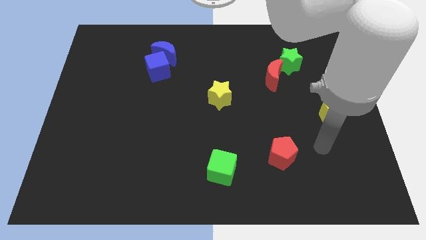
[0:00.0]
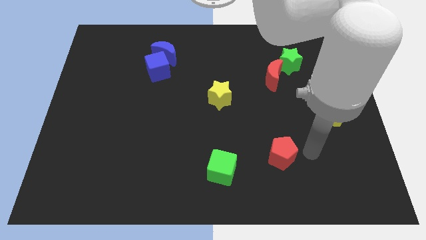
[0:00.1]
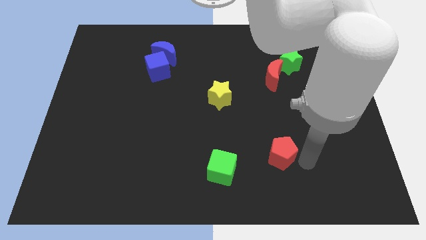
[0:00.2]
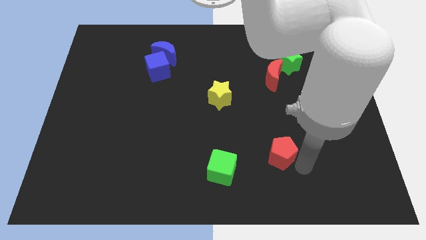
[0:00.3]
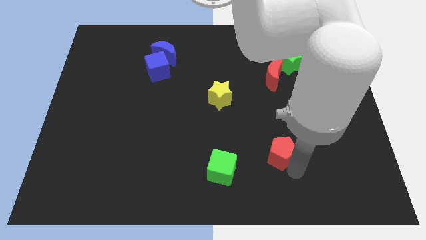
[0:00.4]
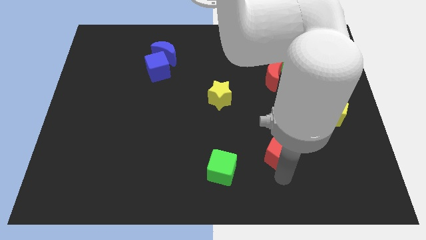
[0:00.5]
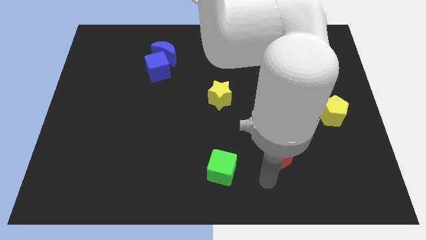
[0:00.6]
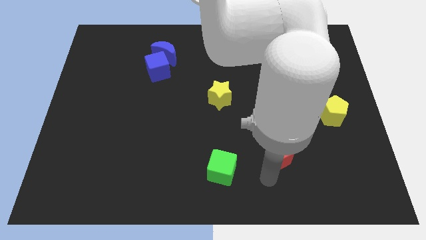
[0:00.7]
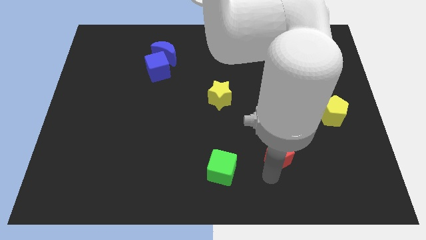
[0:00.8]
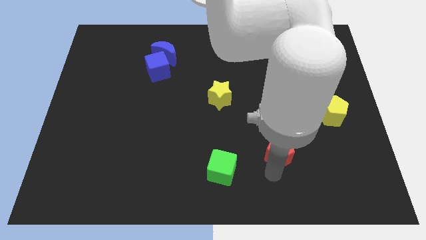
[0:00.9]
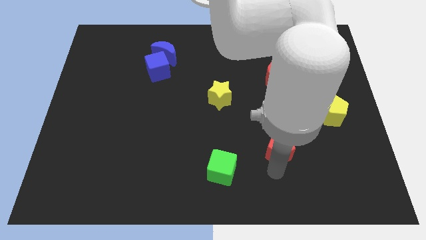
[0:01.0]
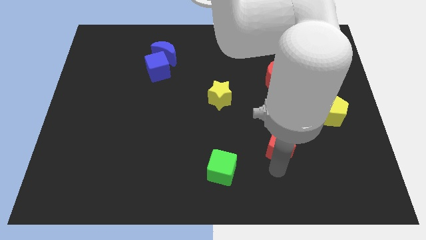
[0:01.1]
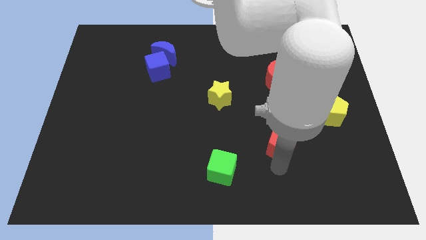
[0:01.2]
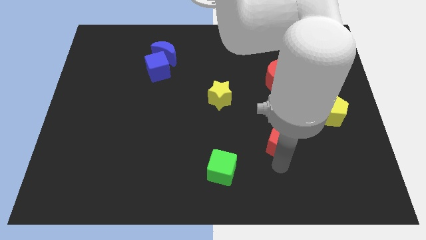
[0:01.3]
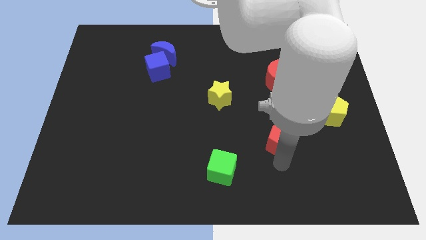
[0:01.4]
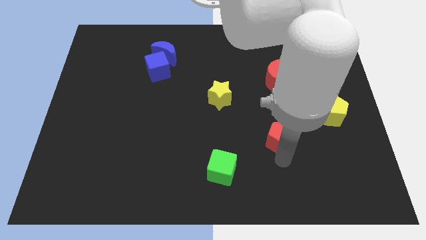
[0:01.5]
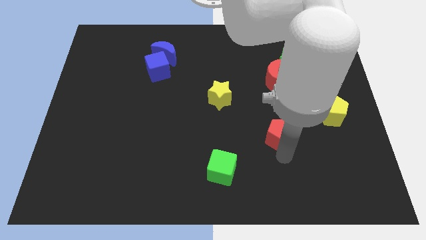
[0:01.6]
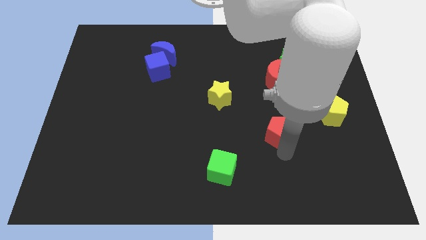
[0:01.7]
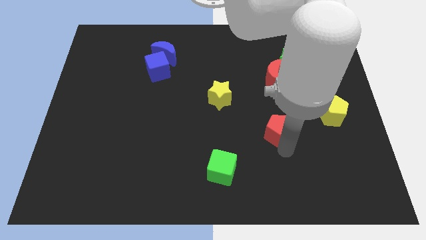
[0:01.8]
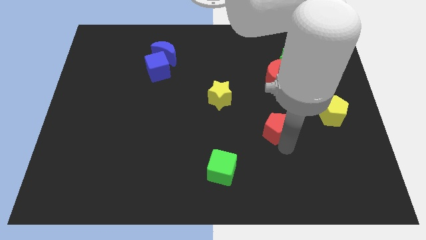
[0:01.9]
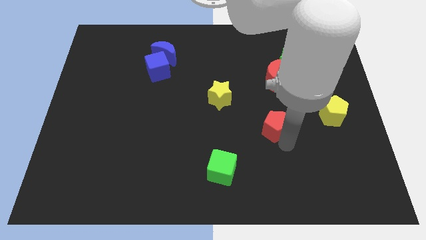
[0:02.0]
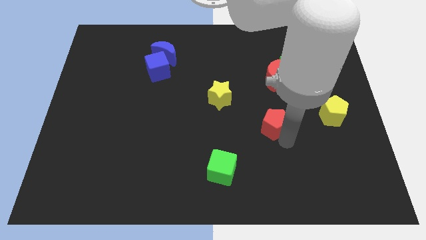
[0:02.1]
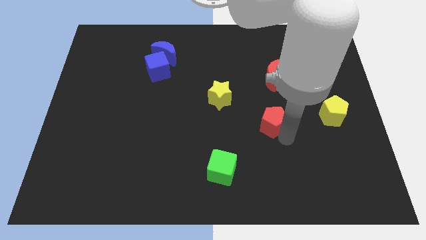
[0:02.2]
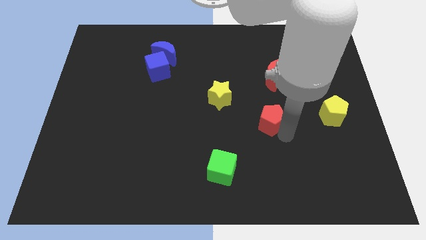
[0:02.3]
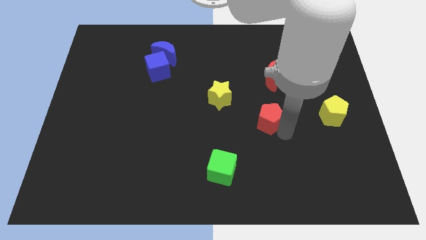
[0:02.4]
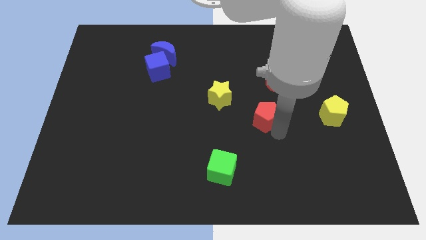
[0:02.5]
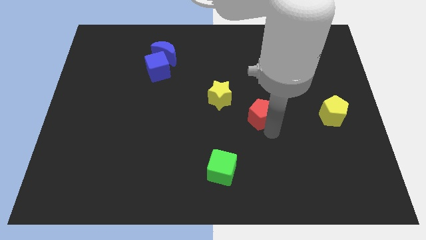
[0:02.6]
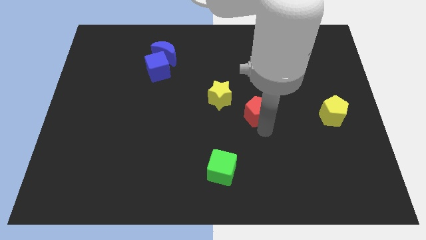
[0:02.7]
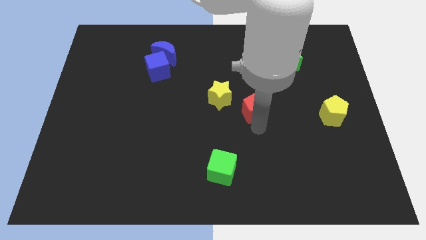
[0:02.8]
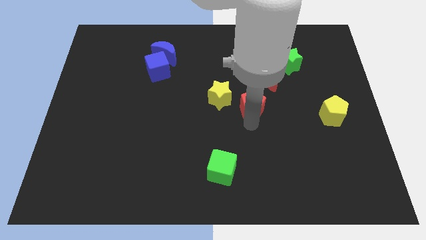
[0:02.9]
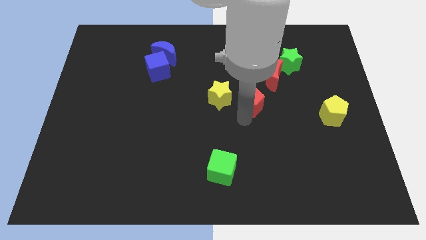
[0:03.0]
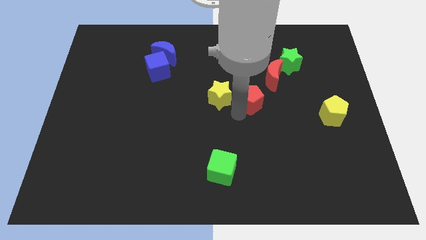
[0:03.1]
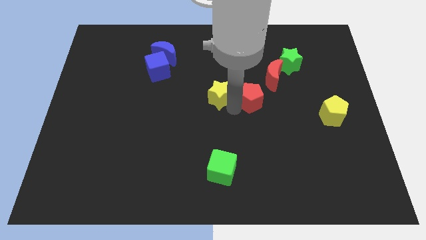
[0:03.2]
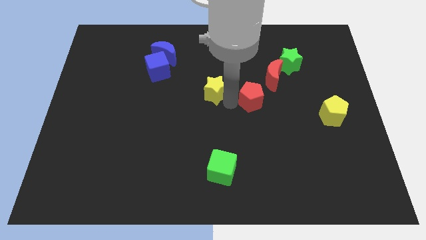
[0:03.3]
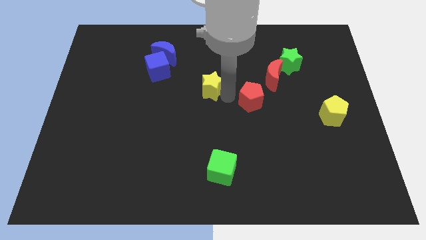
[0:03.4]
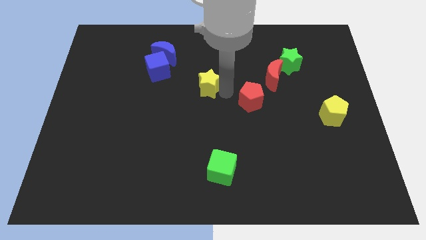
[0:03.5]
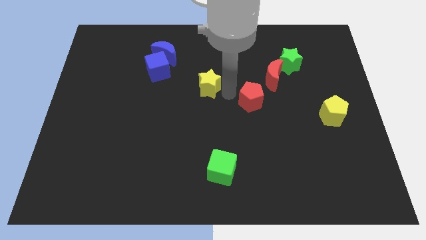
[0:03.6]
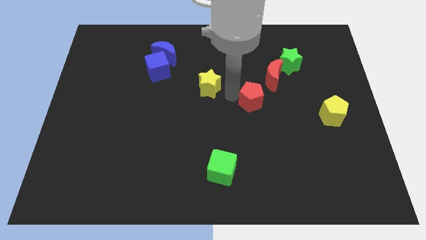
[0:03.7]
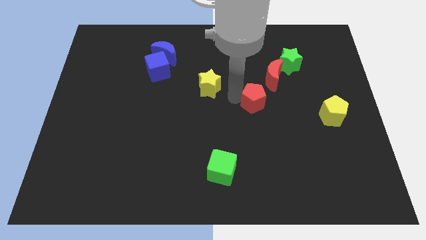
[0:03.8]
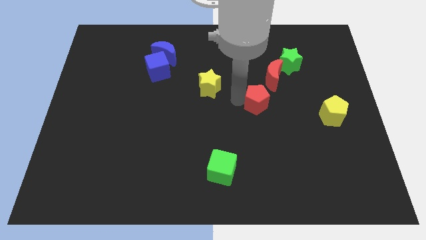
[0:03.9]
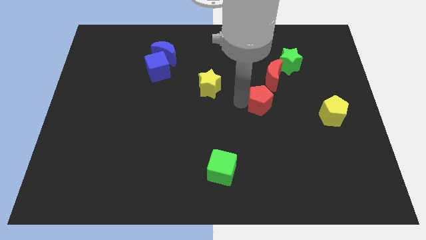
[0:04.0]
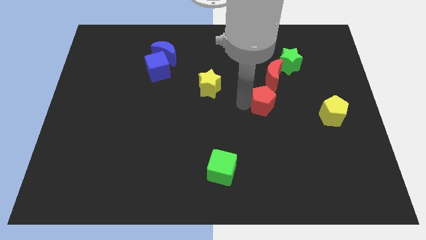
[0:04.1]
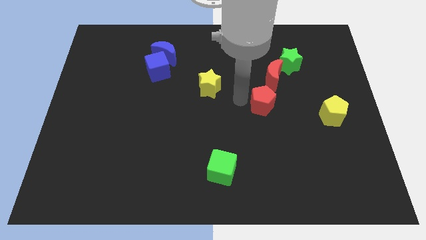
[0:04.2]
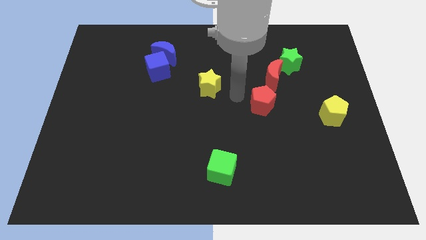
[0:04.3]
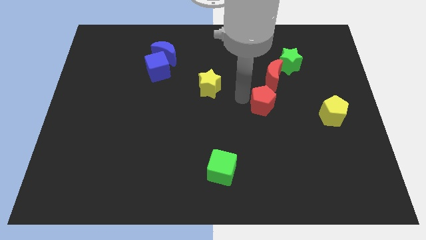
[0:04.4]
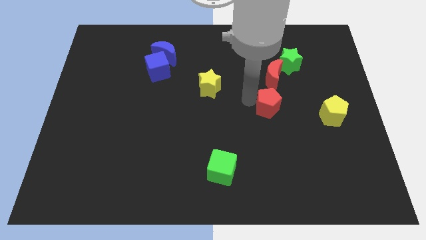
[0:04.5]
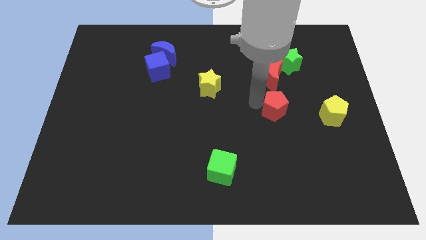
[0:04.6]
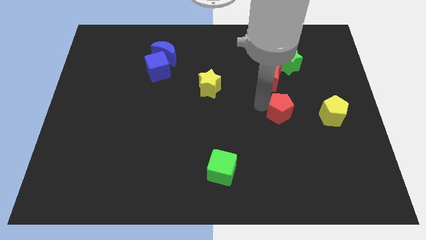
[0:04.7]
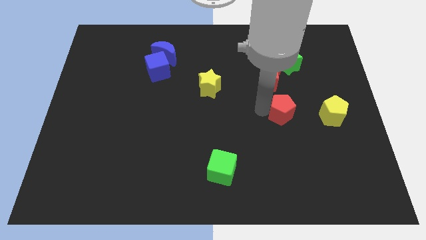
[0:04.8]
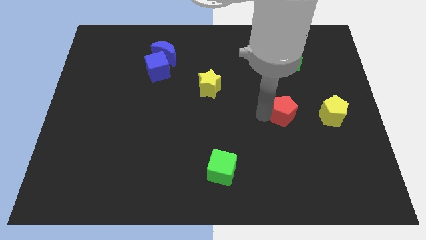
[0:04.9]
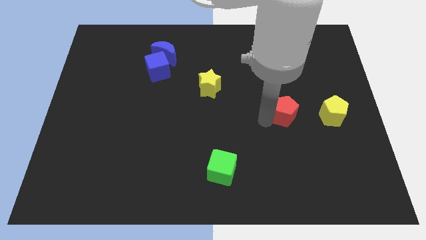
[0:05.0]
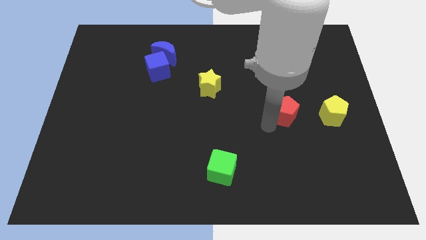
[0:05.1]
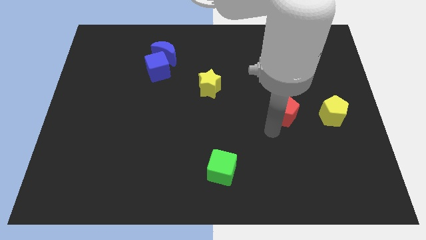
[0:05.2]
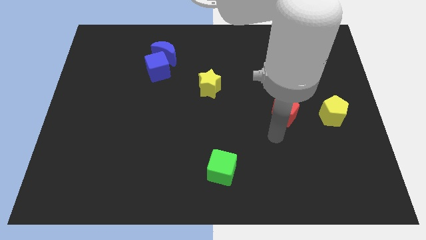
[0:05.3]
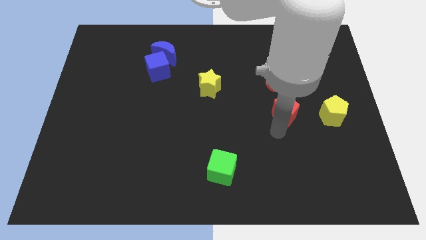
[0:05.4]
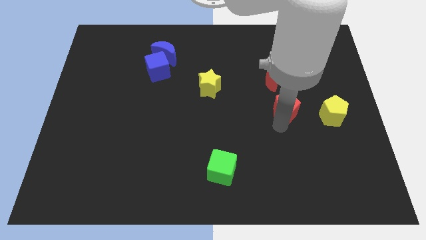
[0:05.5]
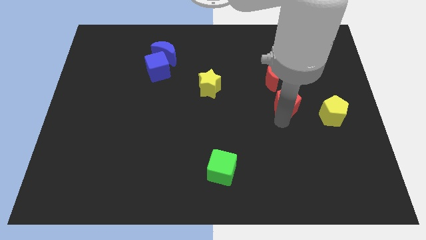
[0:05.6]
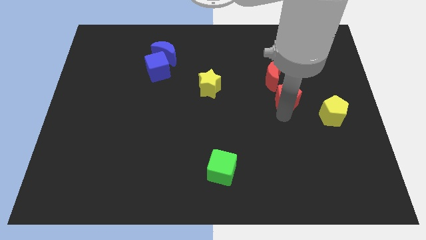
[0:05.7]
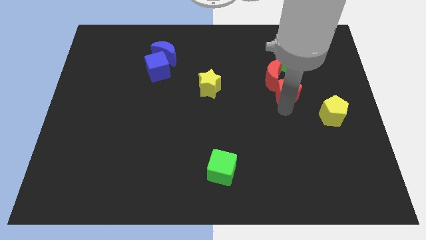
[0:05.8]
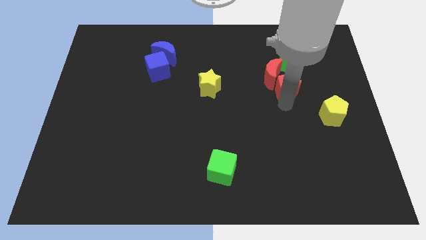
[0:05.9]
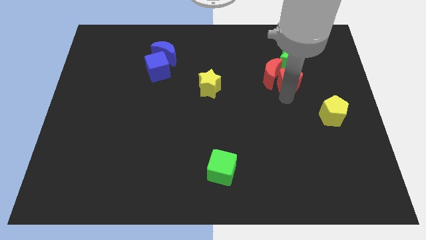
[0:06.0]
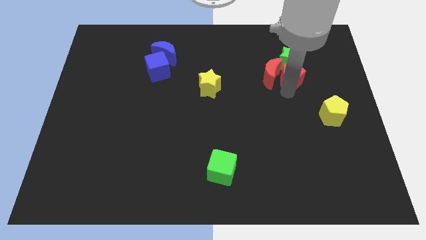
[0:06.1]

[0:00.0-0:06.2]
put the red pentagon to the green star
